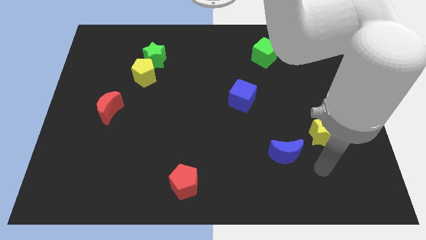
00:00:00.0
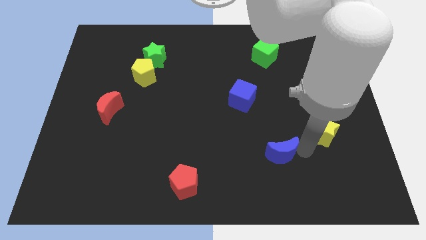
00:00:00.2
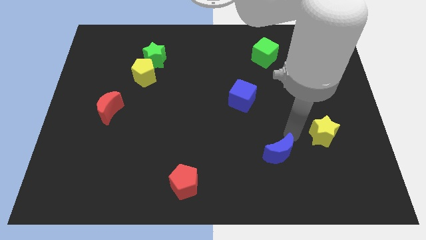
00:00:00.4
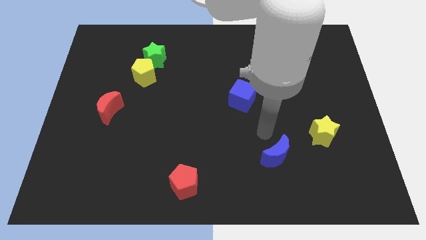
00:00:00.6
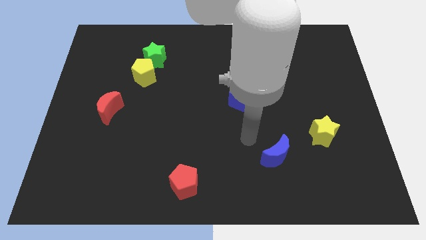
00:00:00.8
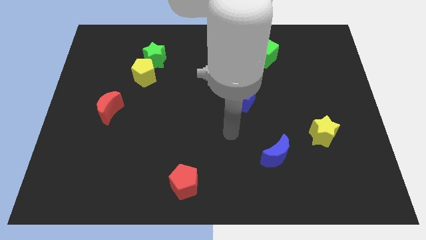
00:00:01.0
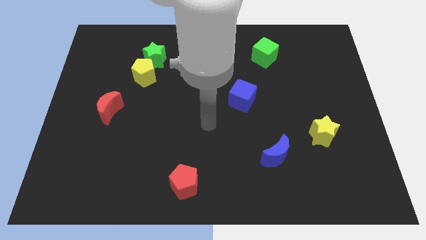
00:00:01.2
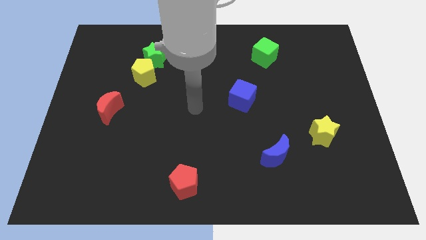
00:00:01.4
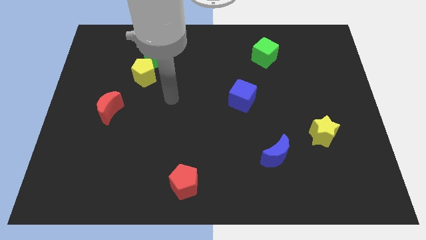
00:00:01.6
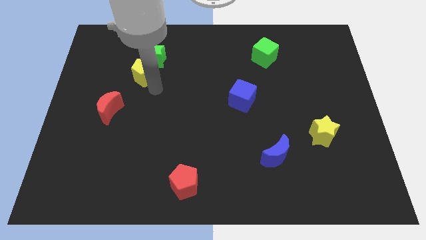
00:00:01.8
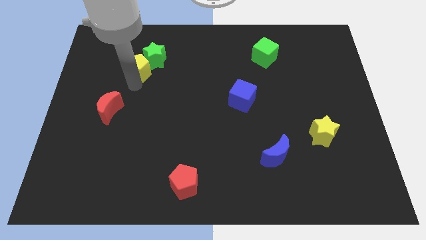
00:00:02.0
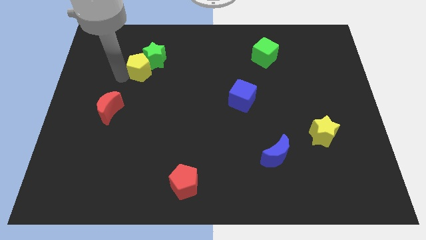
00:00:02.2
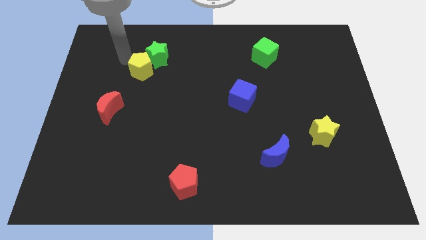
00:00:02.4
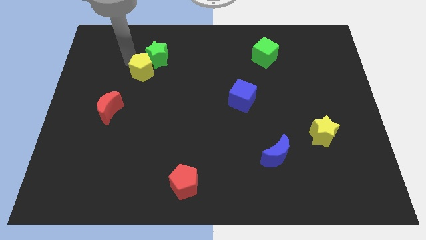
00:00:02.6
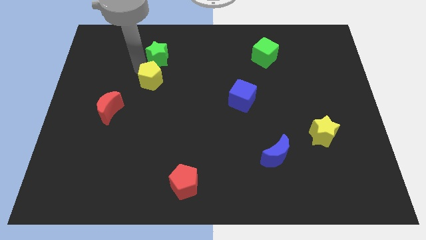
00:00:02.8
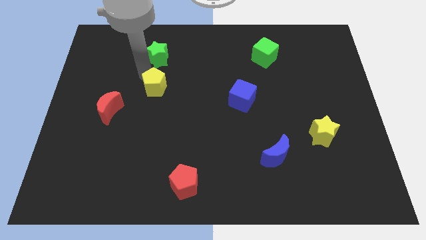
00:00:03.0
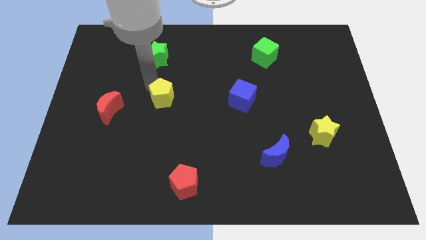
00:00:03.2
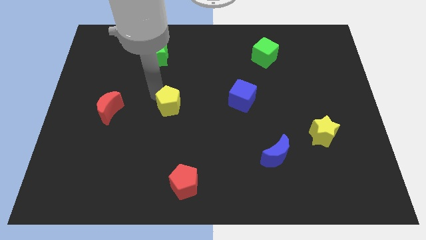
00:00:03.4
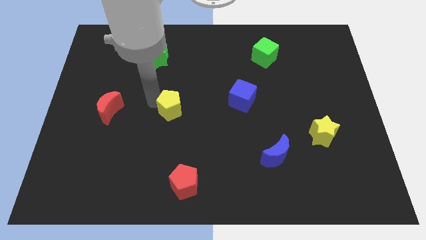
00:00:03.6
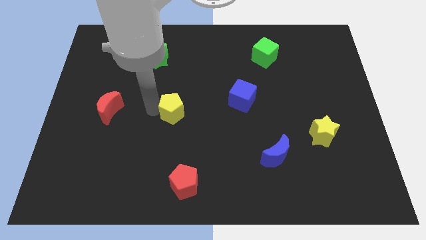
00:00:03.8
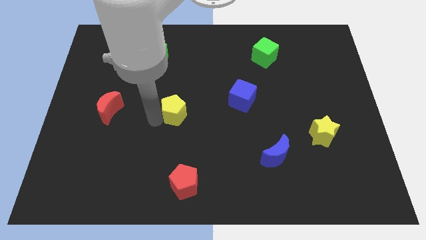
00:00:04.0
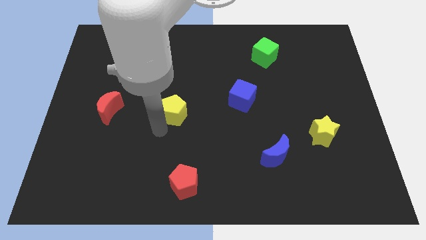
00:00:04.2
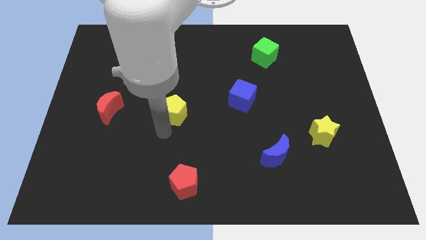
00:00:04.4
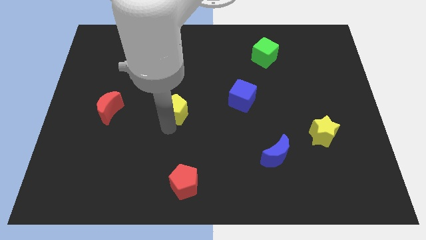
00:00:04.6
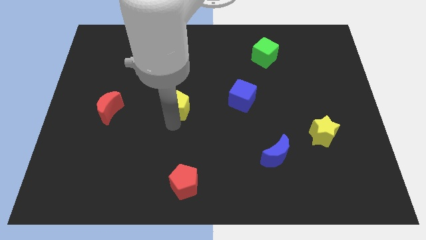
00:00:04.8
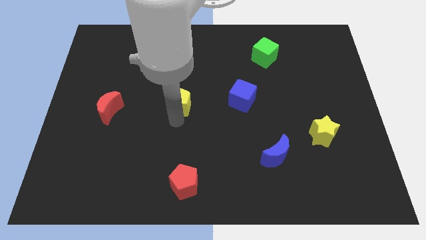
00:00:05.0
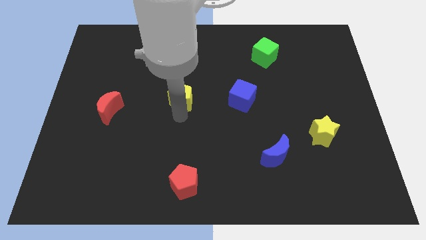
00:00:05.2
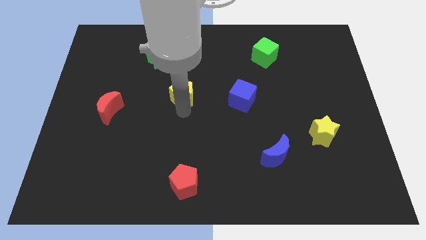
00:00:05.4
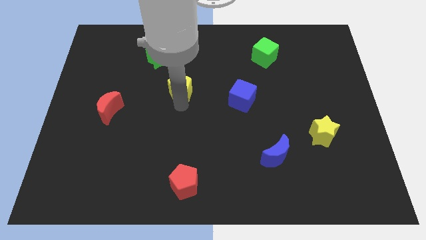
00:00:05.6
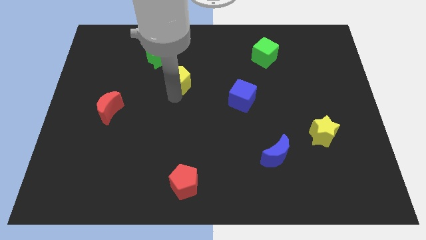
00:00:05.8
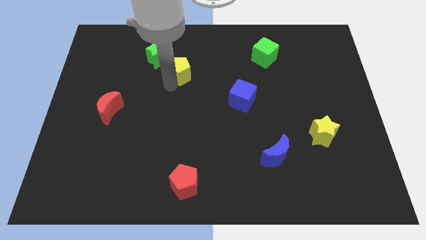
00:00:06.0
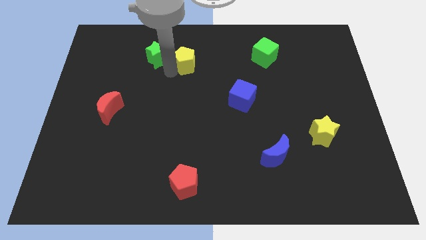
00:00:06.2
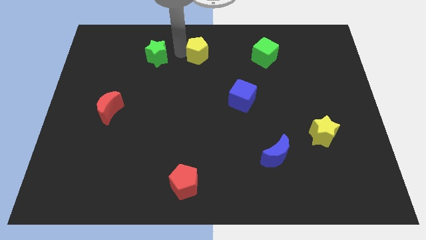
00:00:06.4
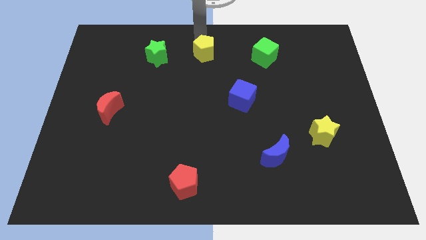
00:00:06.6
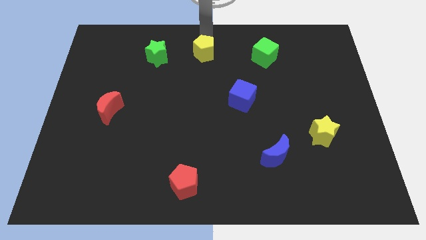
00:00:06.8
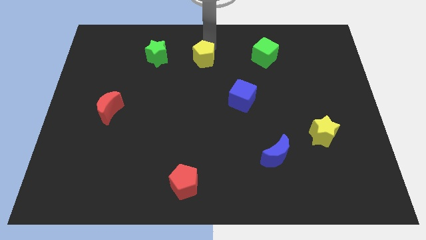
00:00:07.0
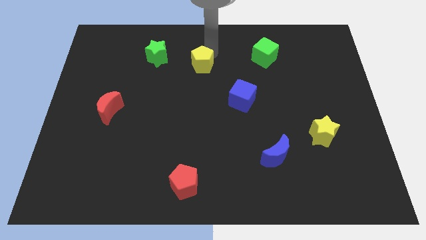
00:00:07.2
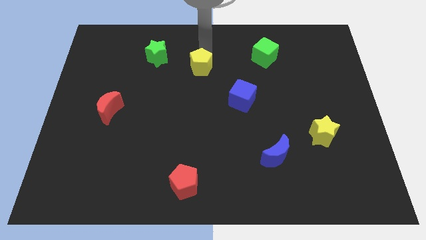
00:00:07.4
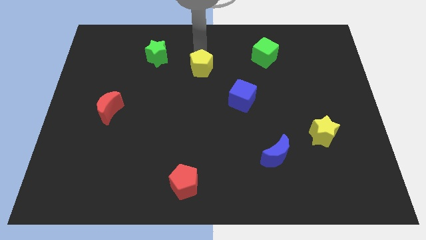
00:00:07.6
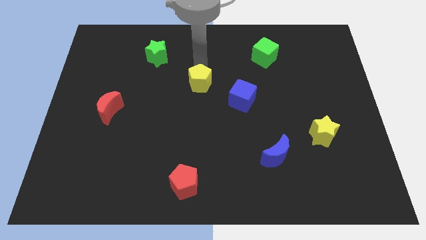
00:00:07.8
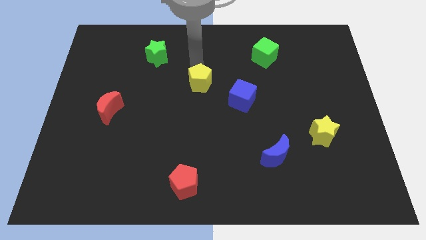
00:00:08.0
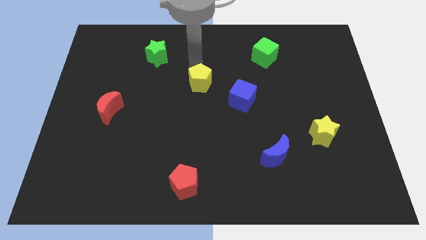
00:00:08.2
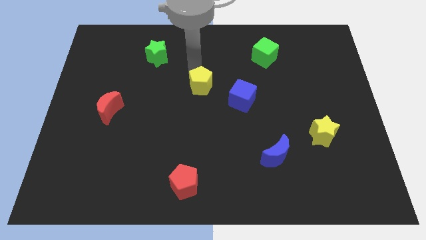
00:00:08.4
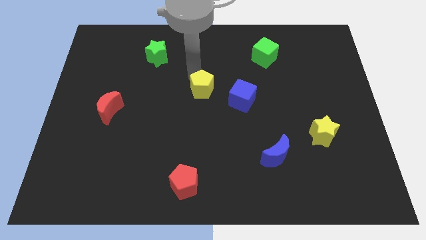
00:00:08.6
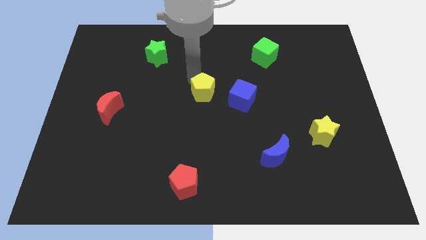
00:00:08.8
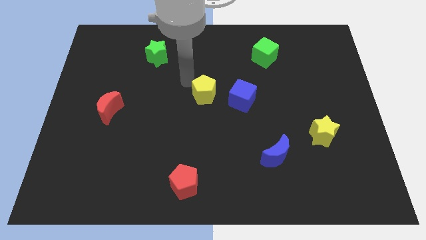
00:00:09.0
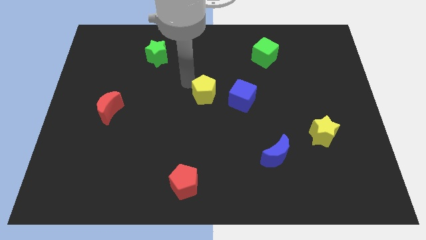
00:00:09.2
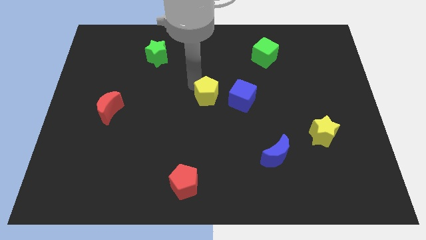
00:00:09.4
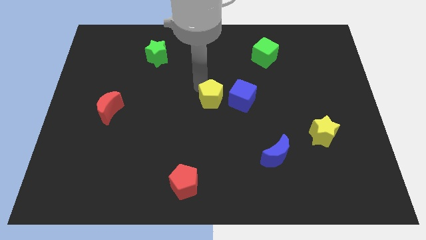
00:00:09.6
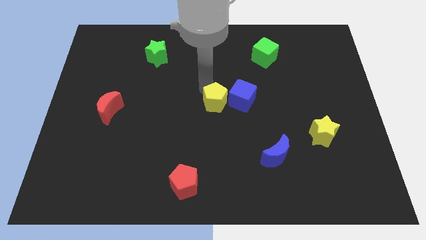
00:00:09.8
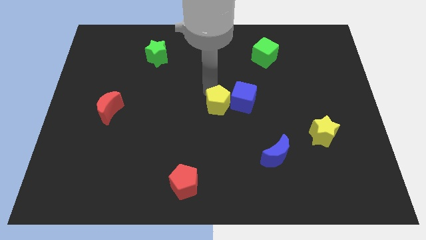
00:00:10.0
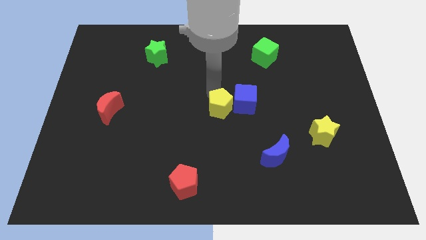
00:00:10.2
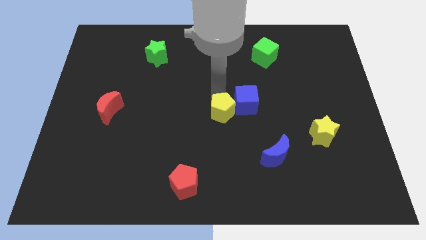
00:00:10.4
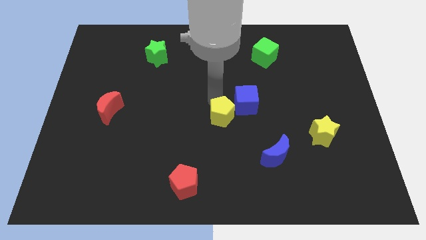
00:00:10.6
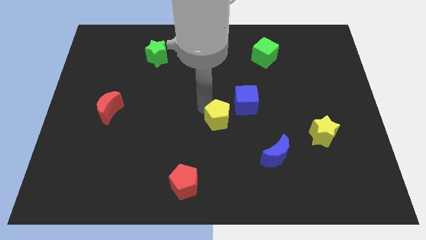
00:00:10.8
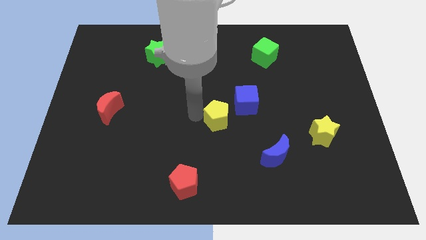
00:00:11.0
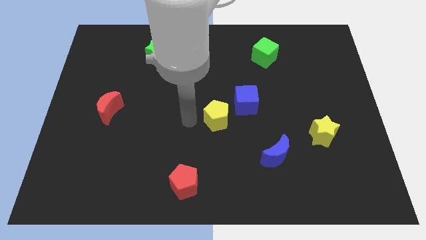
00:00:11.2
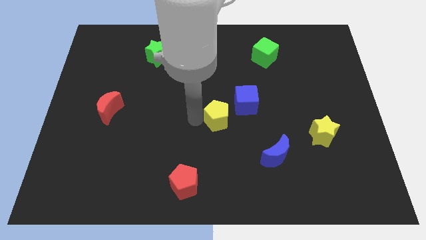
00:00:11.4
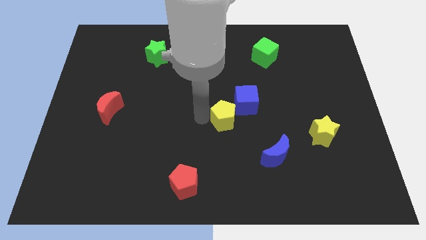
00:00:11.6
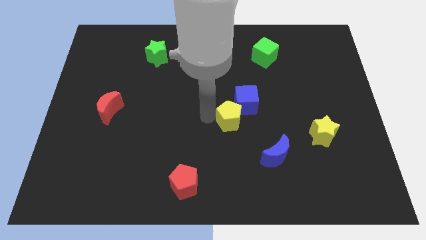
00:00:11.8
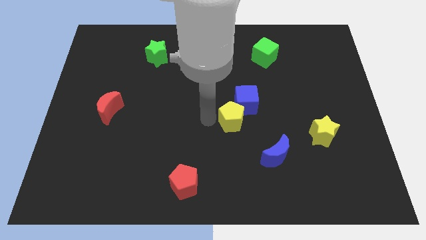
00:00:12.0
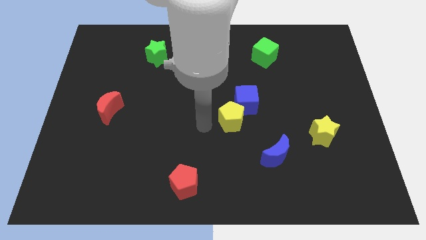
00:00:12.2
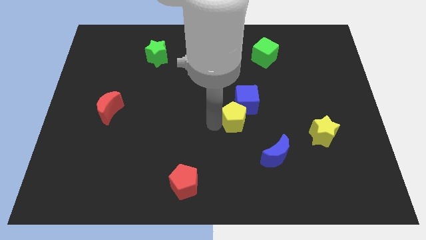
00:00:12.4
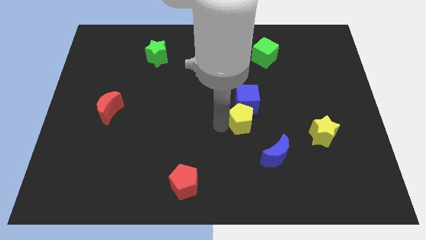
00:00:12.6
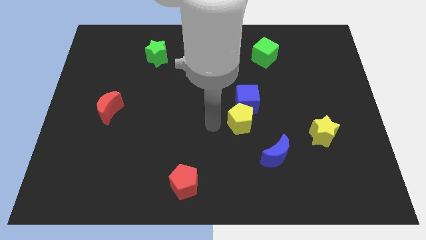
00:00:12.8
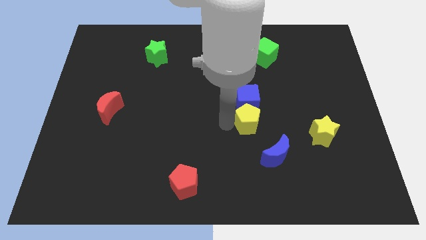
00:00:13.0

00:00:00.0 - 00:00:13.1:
push the yellow pentagon to the bottom right side of the blue cube

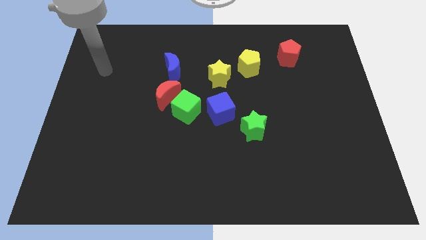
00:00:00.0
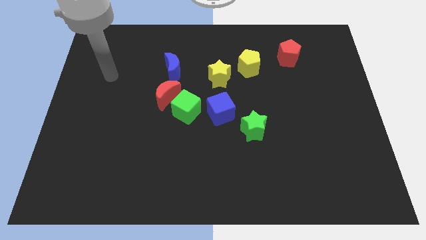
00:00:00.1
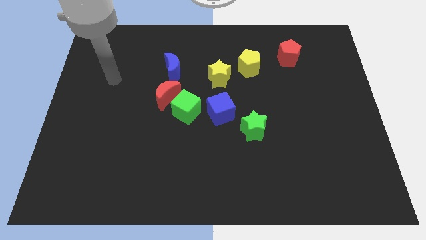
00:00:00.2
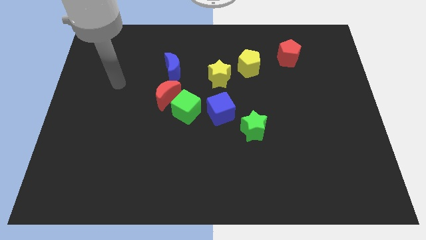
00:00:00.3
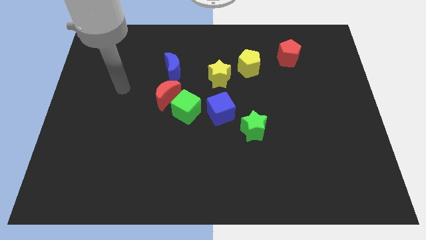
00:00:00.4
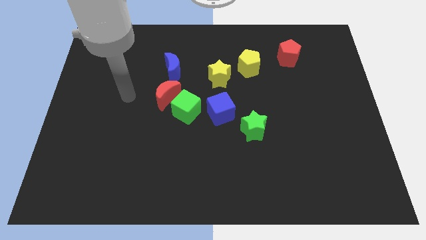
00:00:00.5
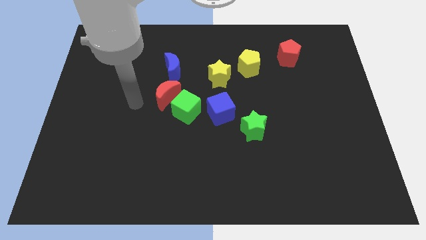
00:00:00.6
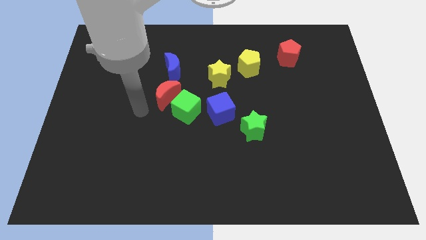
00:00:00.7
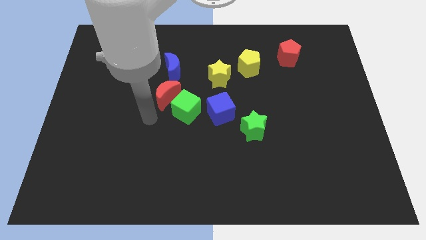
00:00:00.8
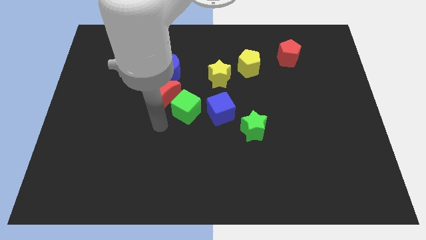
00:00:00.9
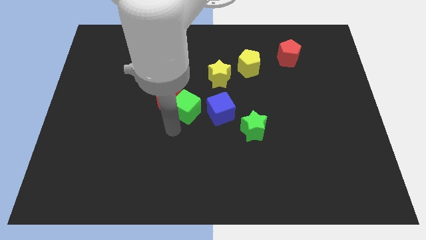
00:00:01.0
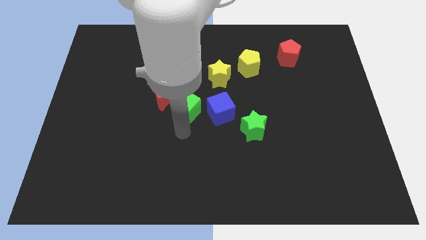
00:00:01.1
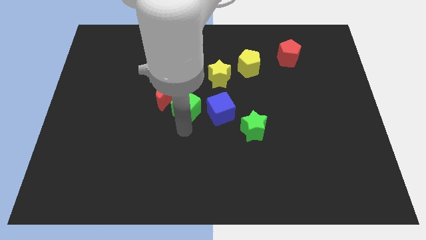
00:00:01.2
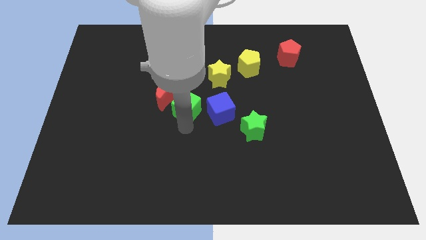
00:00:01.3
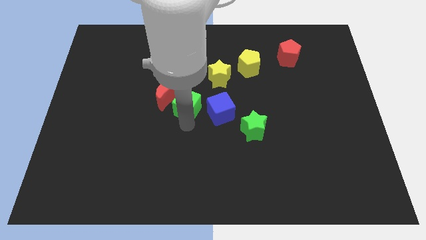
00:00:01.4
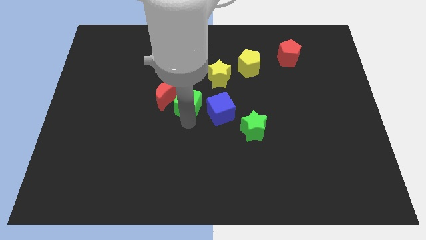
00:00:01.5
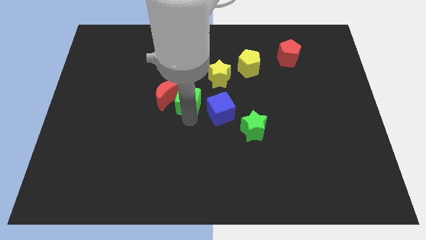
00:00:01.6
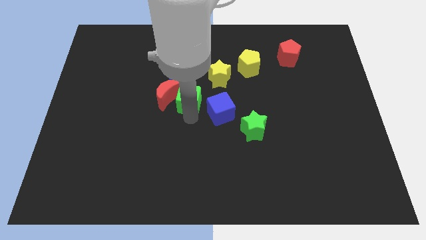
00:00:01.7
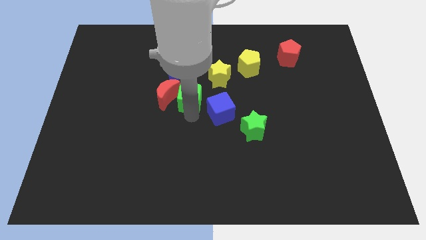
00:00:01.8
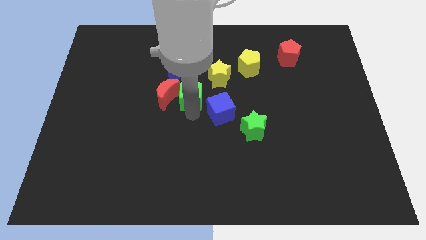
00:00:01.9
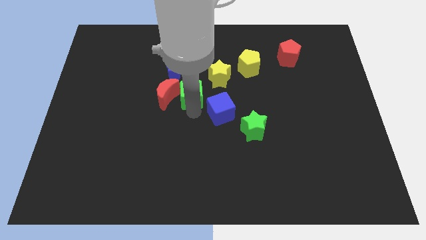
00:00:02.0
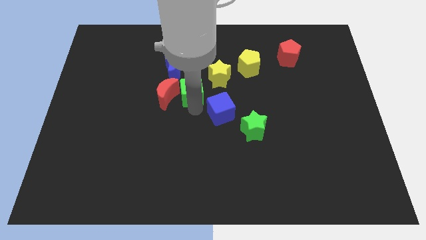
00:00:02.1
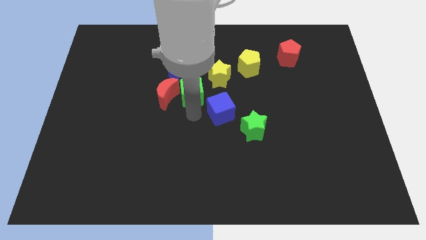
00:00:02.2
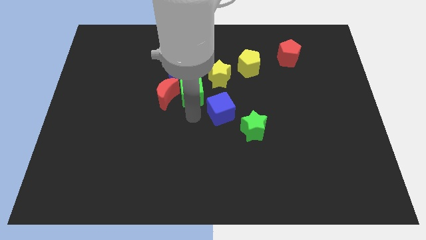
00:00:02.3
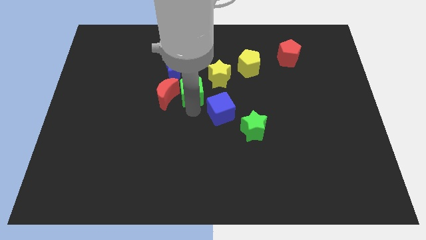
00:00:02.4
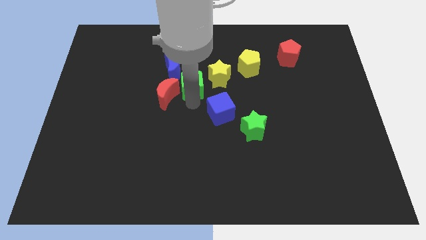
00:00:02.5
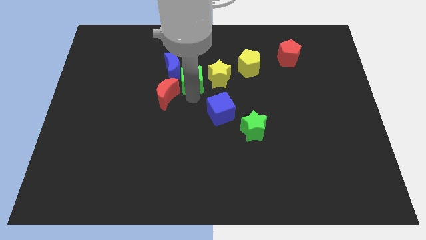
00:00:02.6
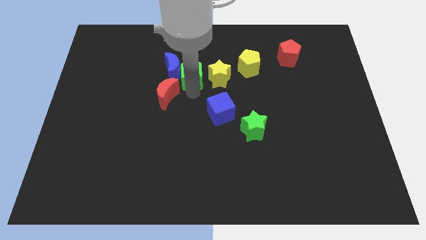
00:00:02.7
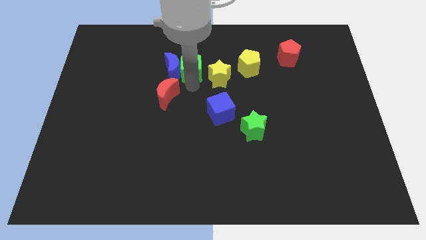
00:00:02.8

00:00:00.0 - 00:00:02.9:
move the green cube to the top right side of the blue moon
